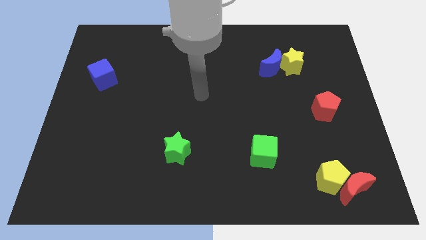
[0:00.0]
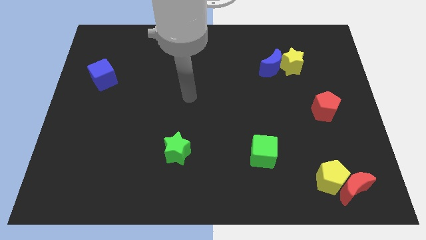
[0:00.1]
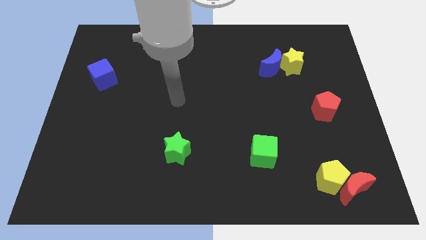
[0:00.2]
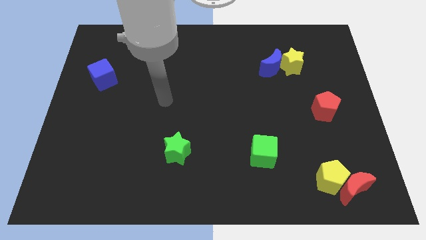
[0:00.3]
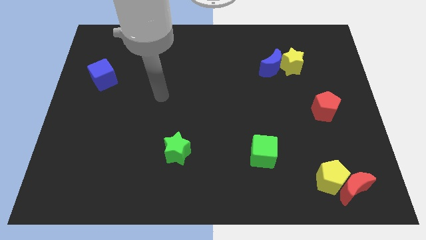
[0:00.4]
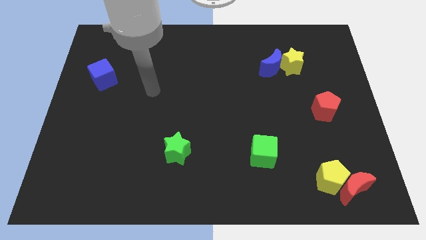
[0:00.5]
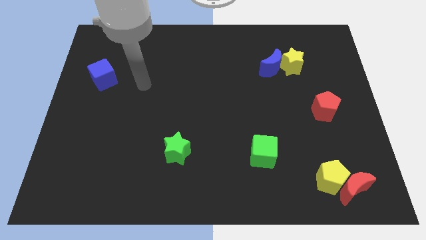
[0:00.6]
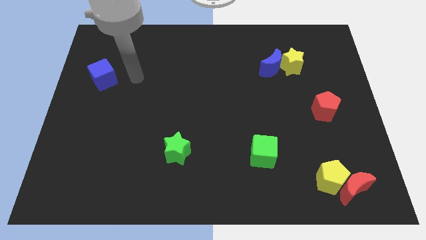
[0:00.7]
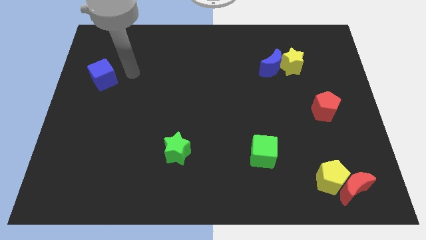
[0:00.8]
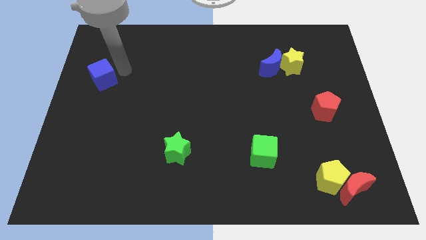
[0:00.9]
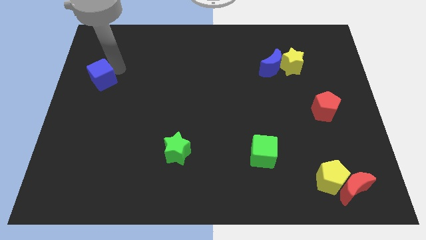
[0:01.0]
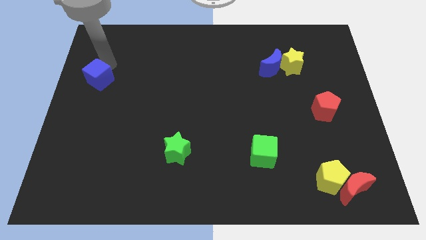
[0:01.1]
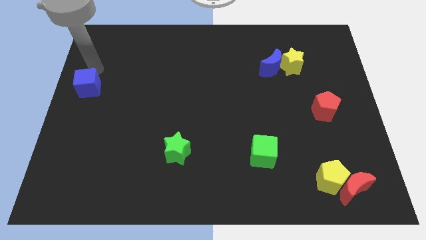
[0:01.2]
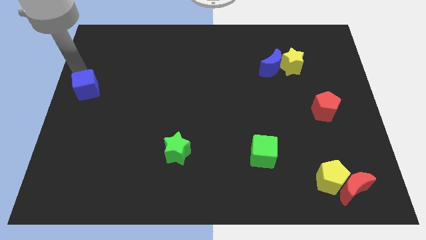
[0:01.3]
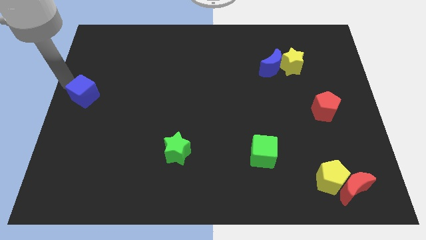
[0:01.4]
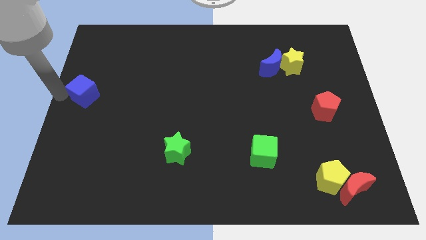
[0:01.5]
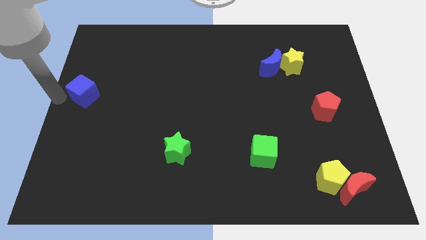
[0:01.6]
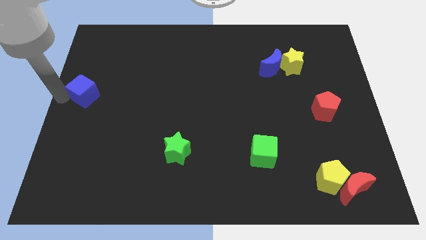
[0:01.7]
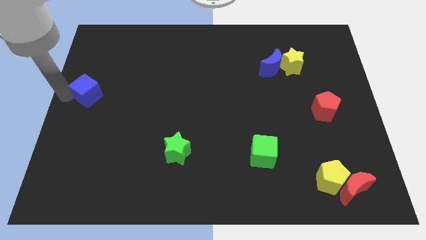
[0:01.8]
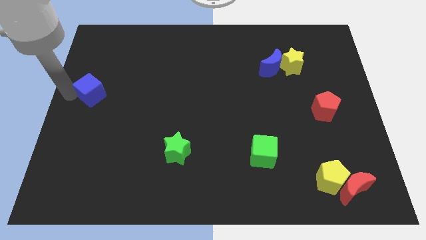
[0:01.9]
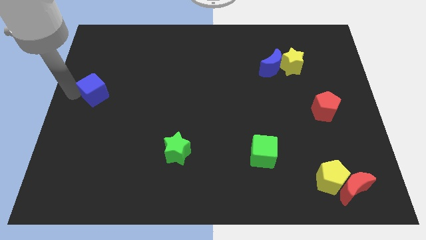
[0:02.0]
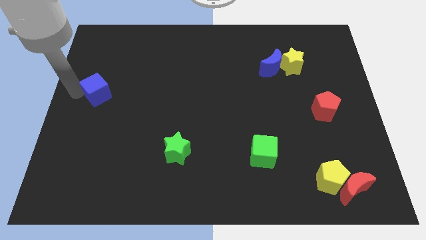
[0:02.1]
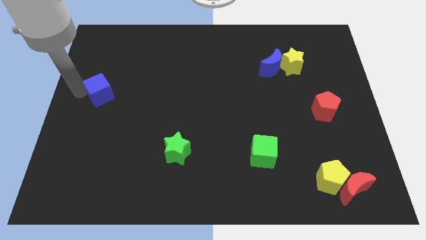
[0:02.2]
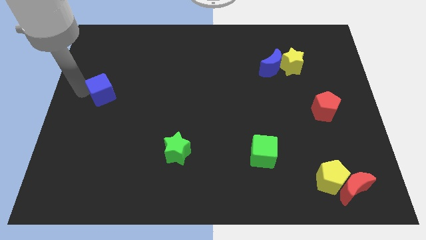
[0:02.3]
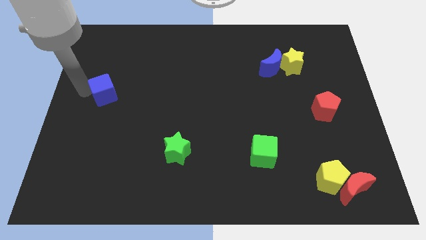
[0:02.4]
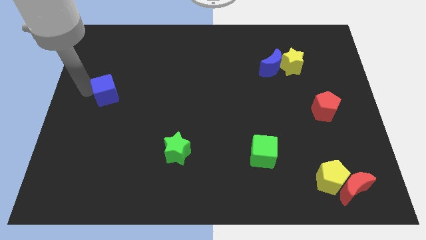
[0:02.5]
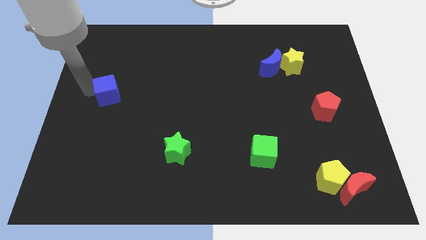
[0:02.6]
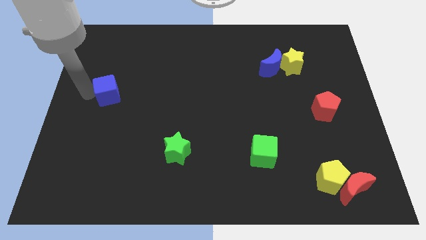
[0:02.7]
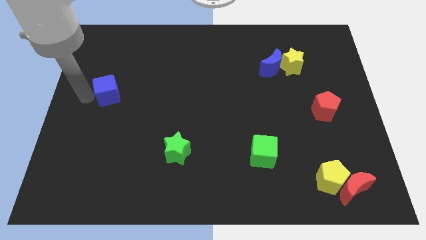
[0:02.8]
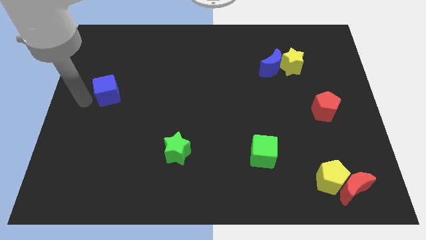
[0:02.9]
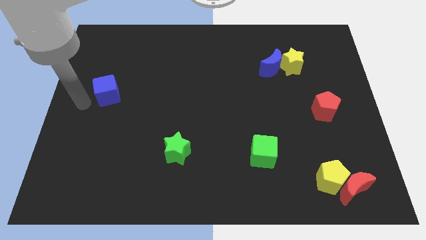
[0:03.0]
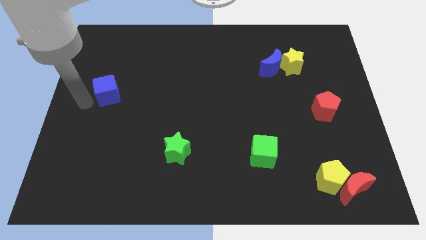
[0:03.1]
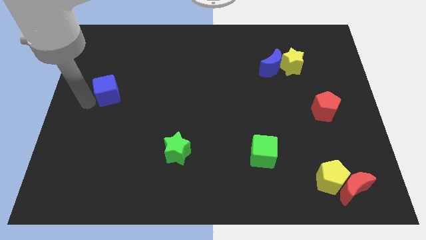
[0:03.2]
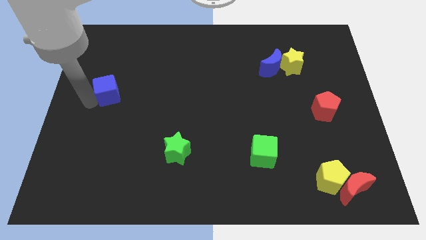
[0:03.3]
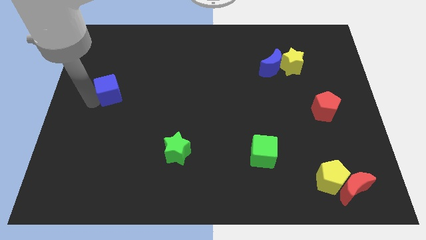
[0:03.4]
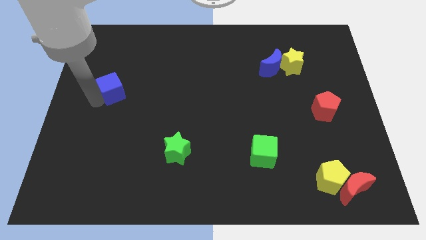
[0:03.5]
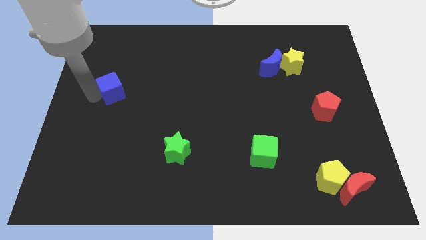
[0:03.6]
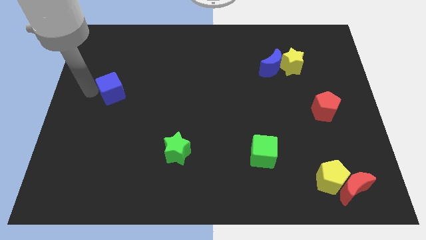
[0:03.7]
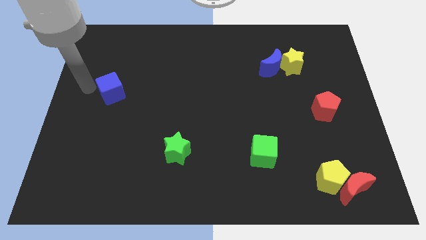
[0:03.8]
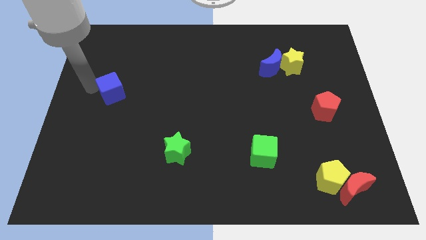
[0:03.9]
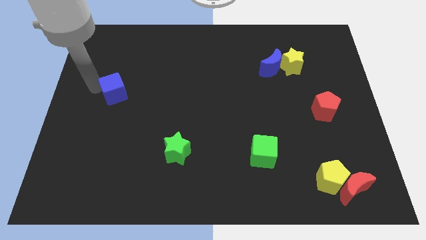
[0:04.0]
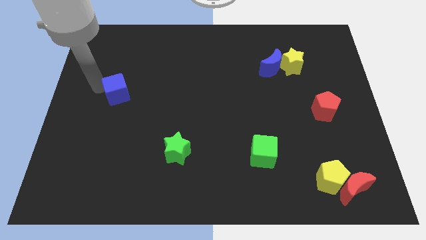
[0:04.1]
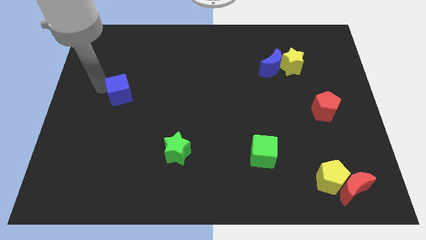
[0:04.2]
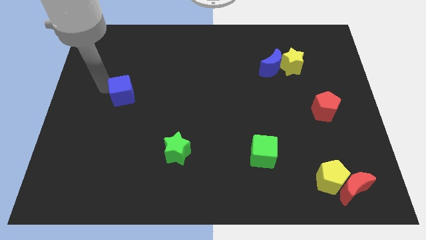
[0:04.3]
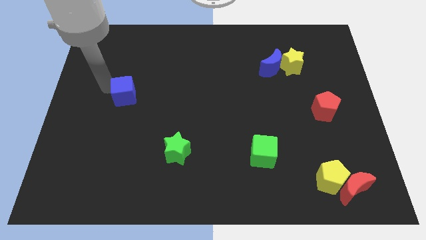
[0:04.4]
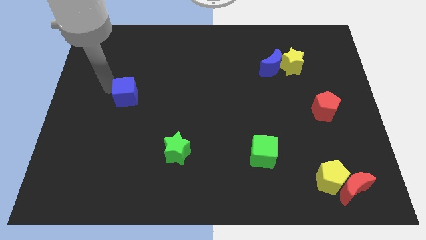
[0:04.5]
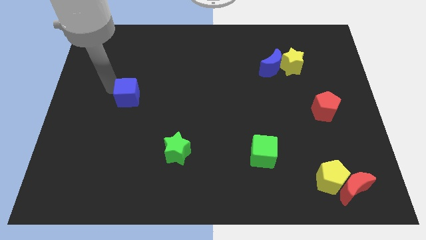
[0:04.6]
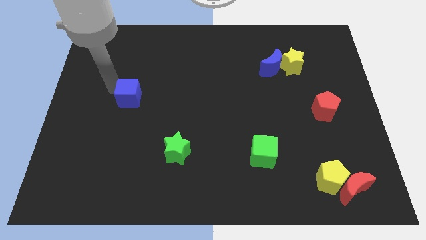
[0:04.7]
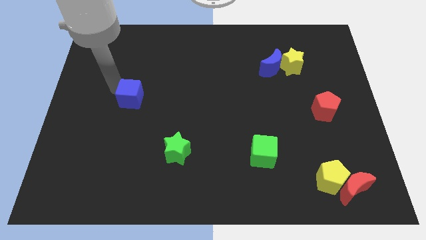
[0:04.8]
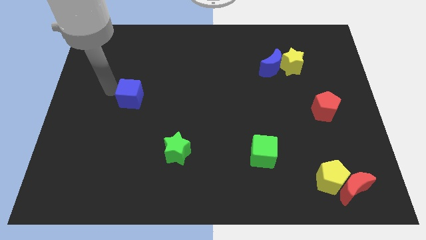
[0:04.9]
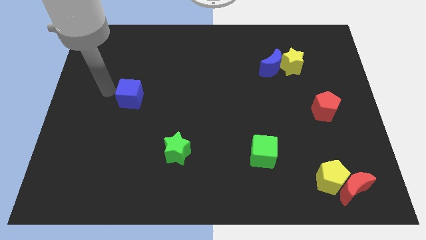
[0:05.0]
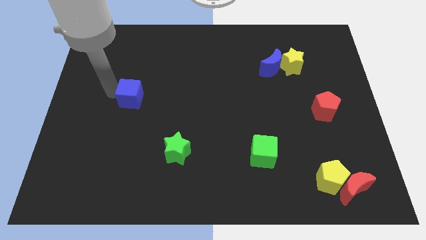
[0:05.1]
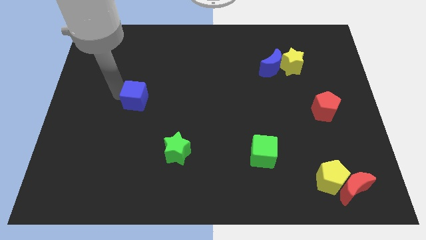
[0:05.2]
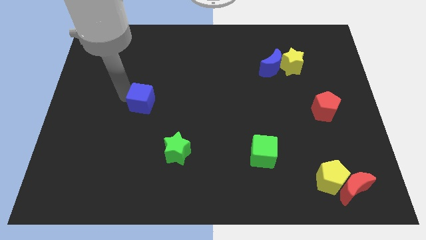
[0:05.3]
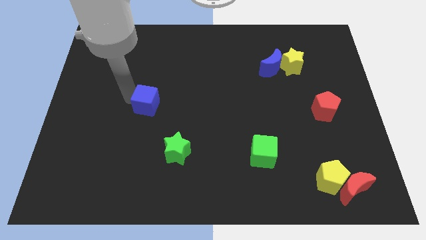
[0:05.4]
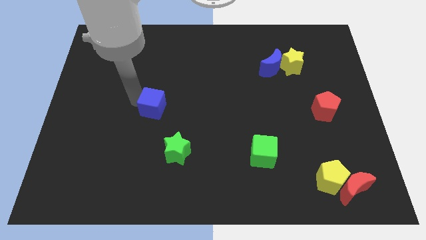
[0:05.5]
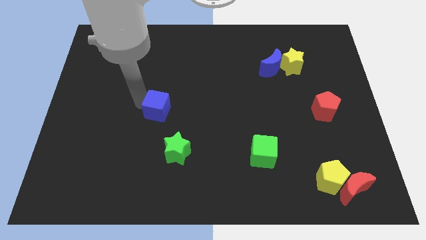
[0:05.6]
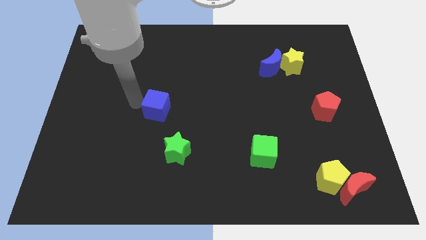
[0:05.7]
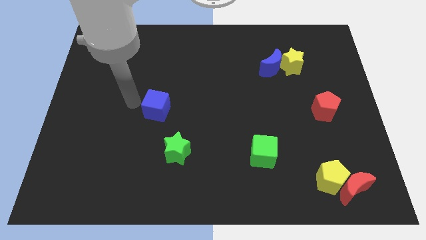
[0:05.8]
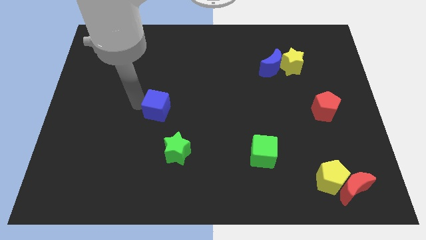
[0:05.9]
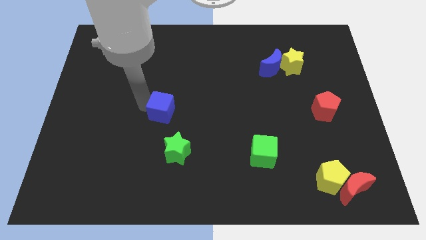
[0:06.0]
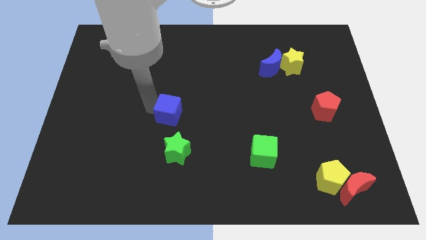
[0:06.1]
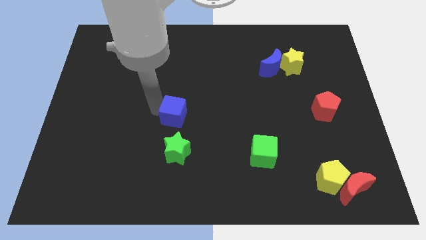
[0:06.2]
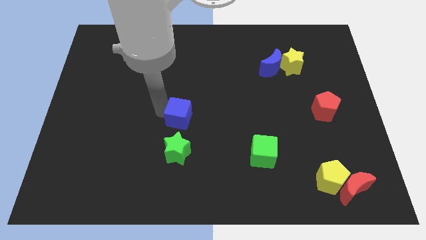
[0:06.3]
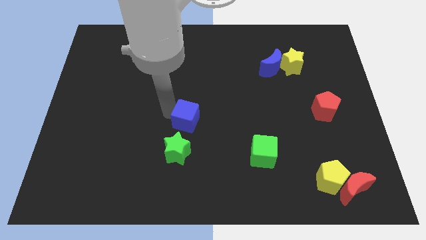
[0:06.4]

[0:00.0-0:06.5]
put the blue cube to the top right of the green star

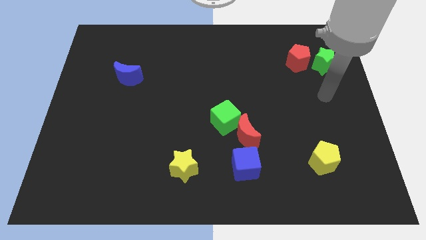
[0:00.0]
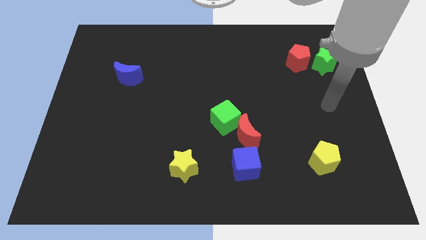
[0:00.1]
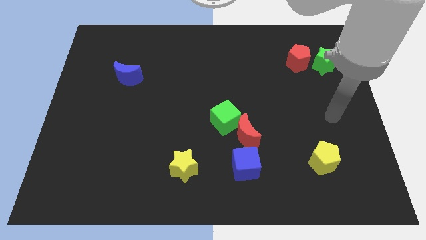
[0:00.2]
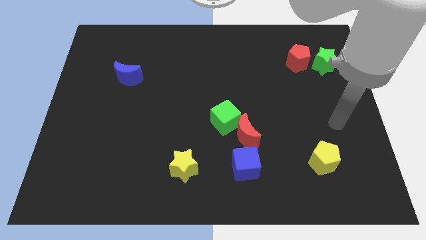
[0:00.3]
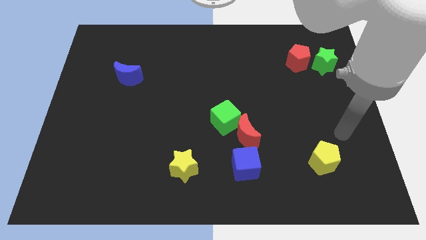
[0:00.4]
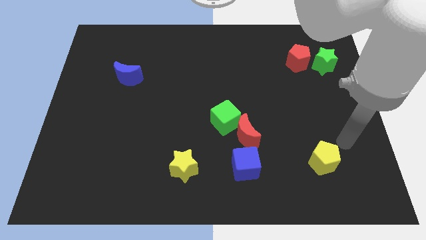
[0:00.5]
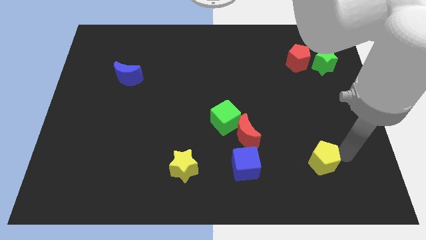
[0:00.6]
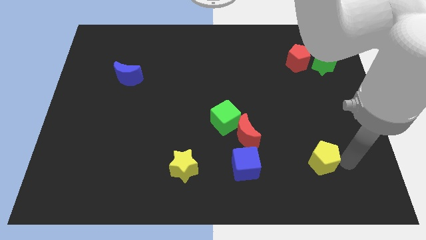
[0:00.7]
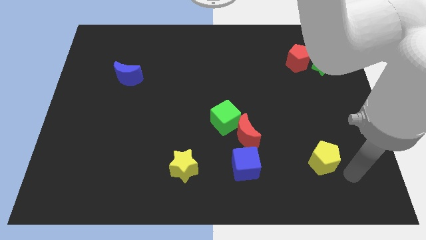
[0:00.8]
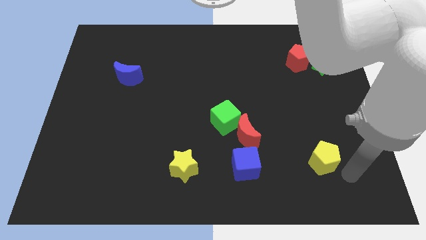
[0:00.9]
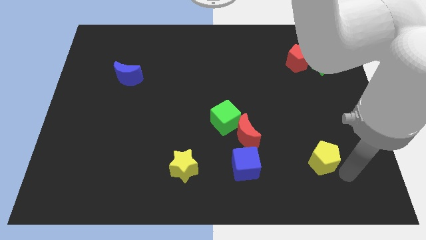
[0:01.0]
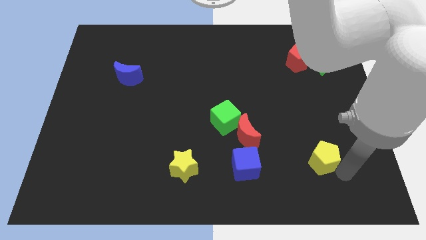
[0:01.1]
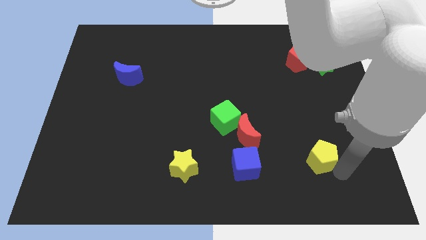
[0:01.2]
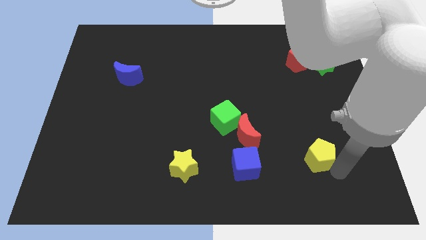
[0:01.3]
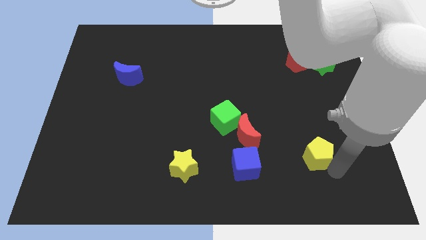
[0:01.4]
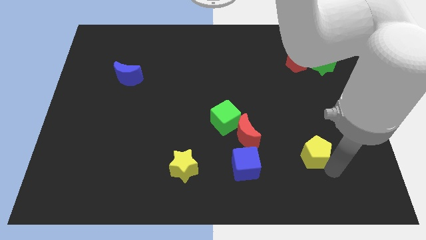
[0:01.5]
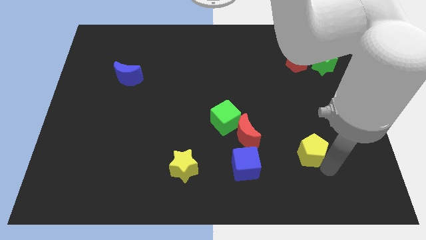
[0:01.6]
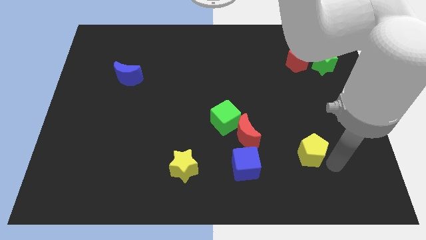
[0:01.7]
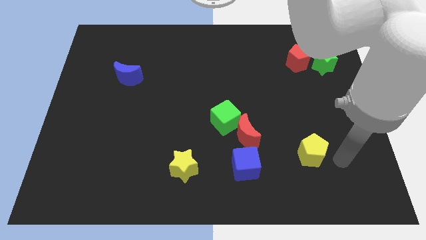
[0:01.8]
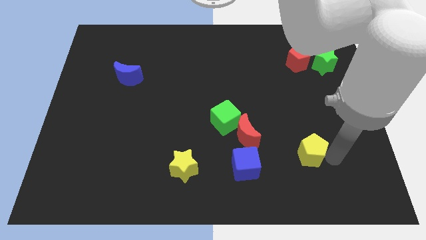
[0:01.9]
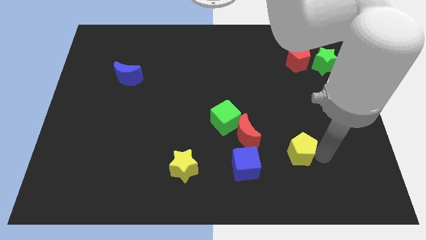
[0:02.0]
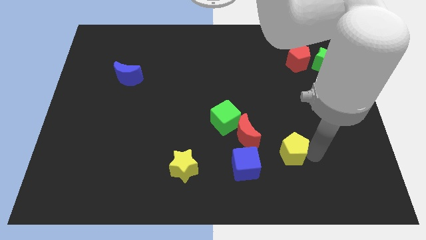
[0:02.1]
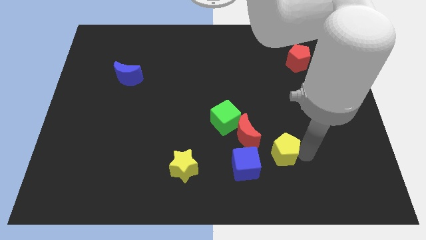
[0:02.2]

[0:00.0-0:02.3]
move the yellow pentagon to the top right side of the blue cube
